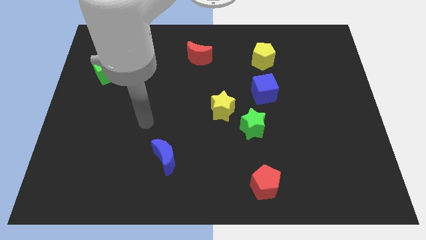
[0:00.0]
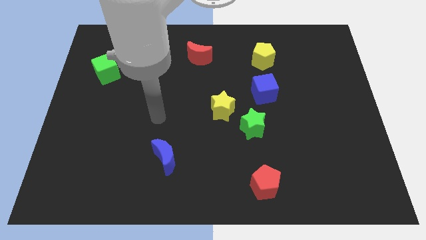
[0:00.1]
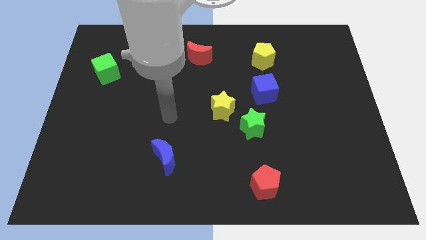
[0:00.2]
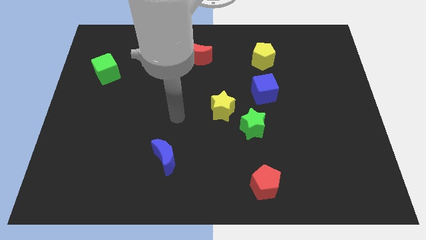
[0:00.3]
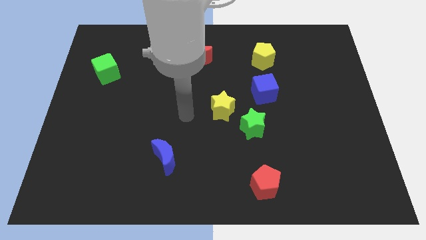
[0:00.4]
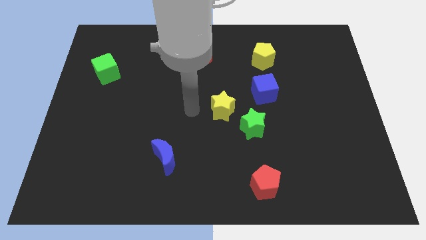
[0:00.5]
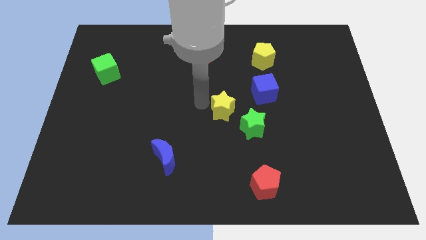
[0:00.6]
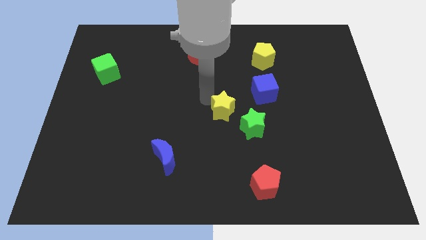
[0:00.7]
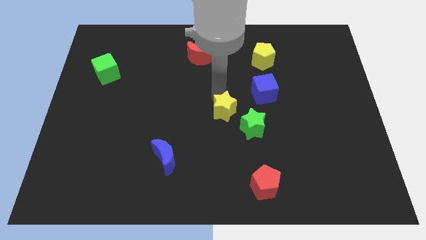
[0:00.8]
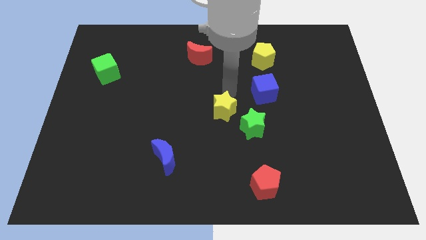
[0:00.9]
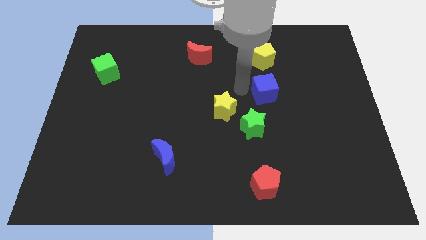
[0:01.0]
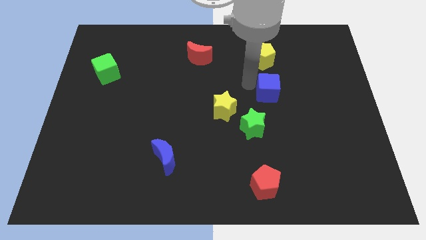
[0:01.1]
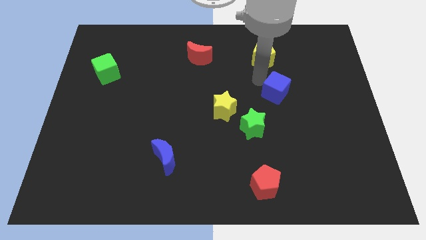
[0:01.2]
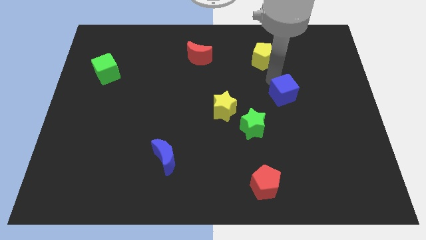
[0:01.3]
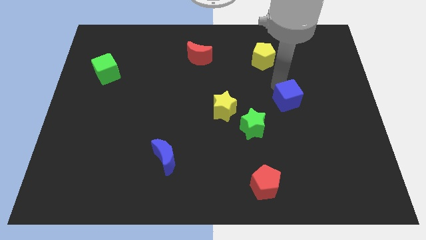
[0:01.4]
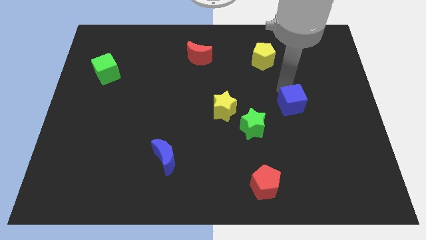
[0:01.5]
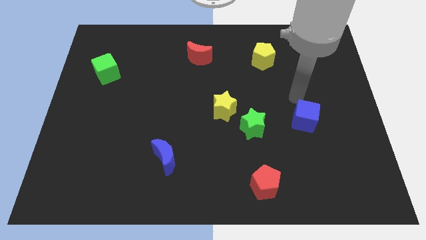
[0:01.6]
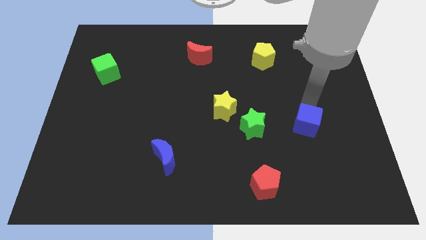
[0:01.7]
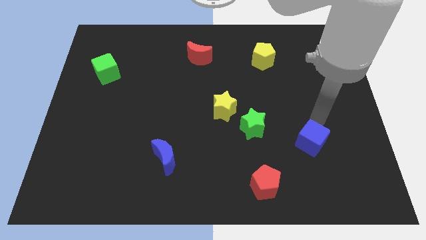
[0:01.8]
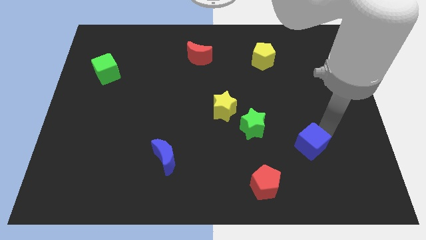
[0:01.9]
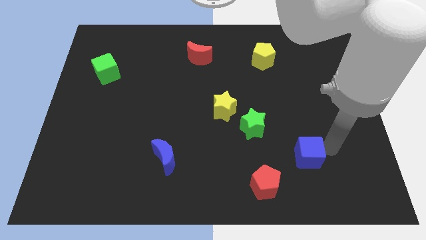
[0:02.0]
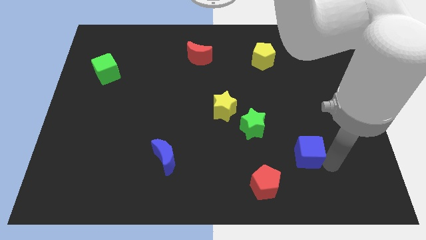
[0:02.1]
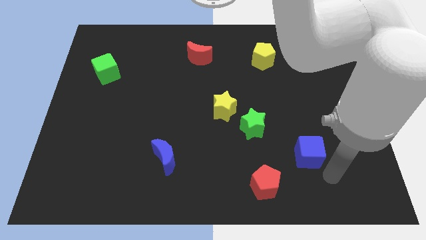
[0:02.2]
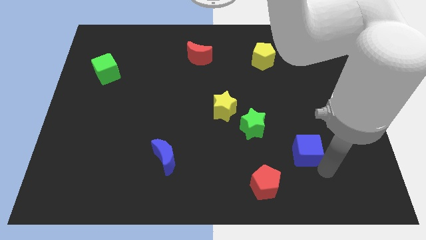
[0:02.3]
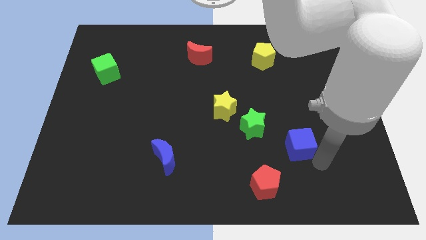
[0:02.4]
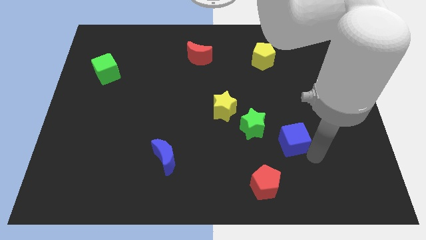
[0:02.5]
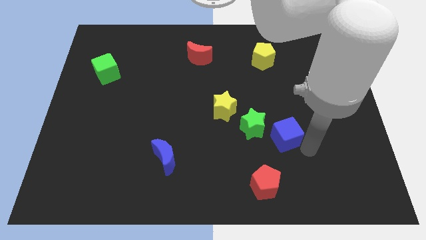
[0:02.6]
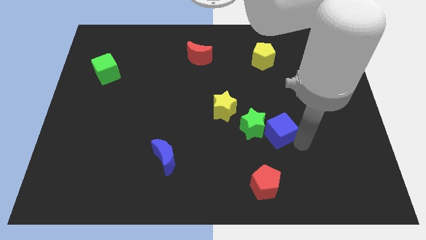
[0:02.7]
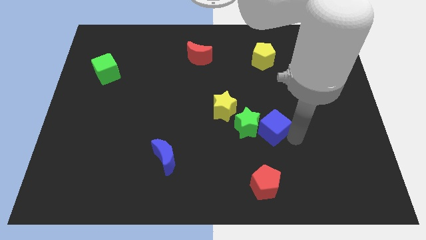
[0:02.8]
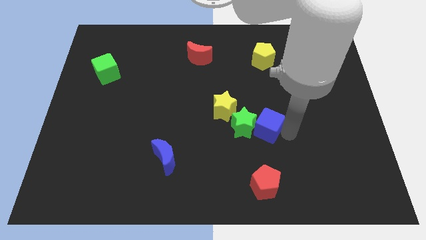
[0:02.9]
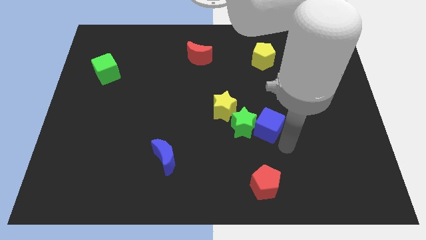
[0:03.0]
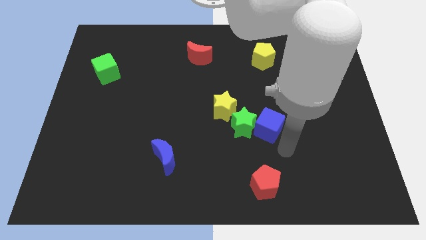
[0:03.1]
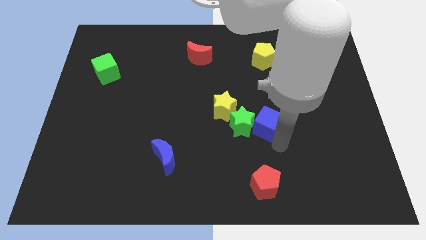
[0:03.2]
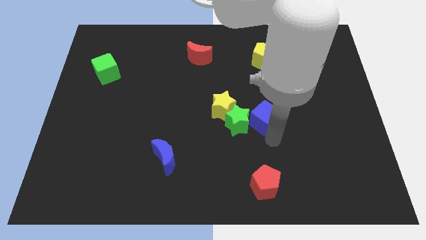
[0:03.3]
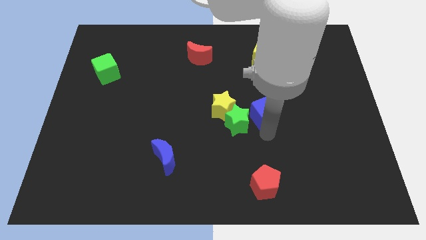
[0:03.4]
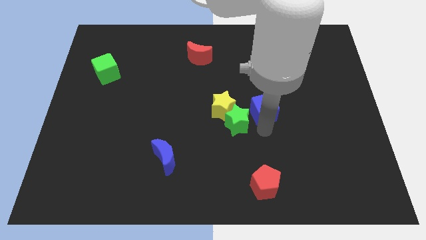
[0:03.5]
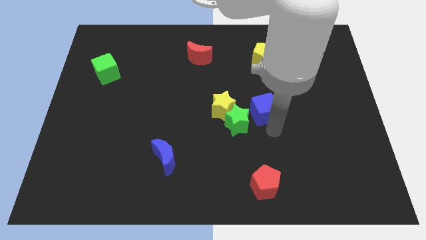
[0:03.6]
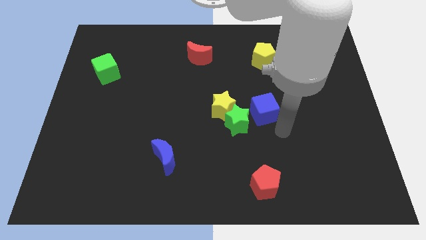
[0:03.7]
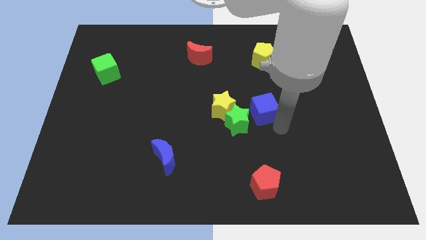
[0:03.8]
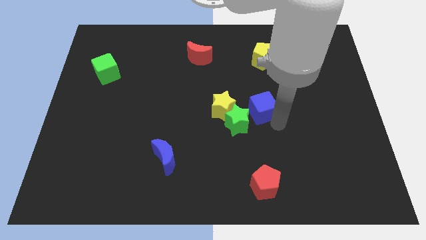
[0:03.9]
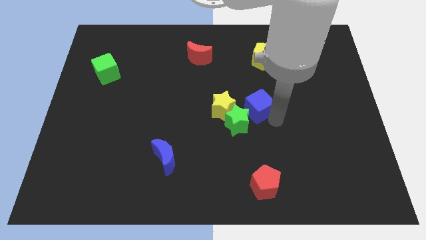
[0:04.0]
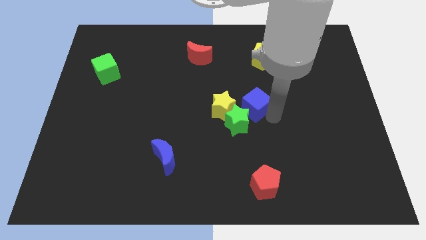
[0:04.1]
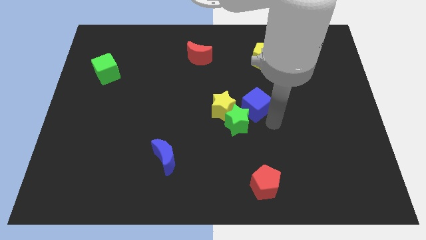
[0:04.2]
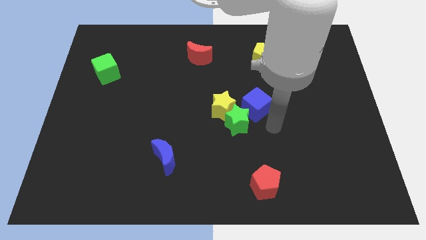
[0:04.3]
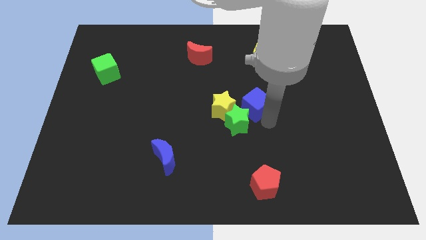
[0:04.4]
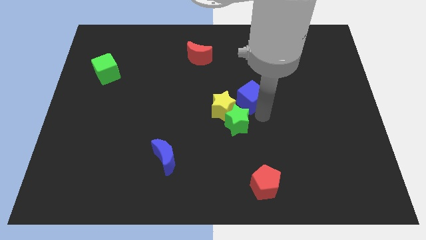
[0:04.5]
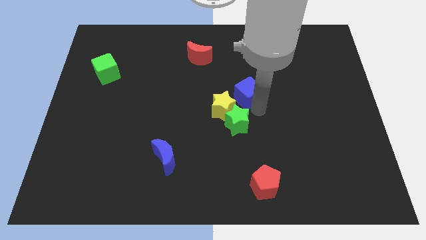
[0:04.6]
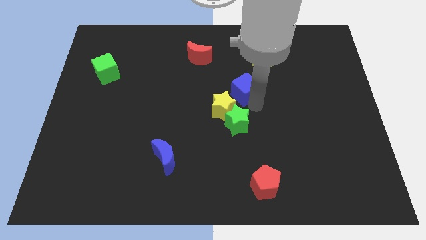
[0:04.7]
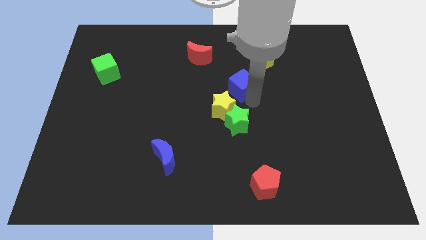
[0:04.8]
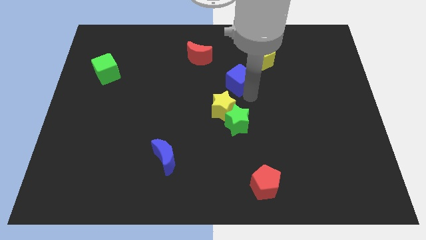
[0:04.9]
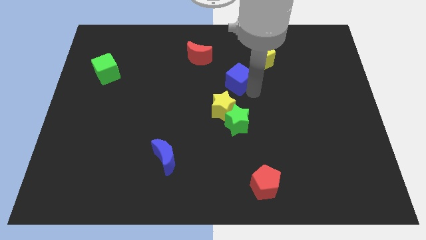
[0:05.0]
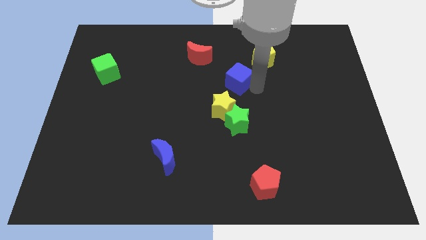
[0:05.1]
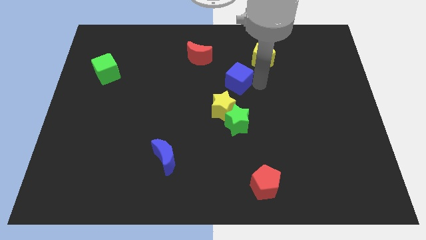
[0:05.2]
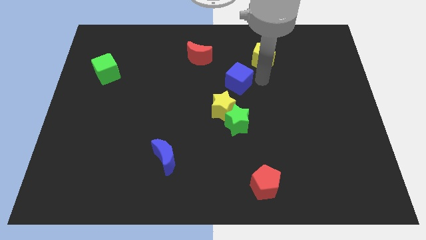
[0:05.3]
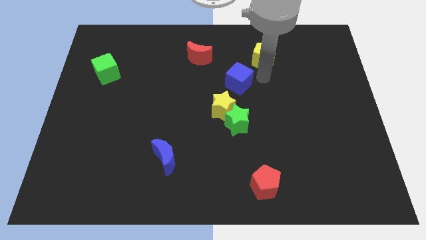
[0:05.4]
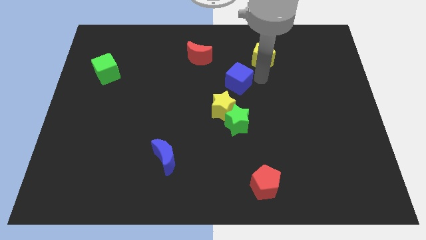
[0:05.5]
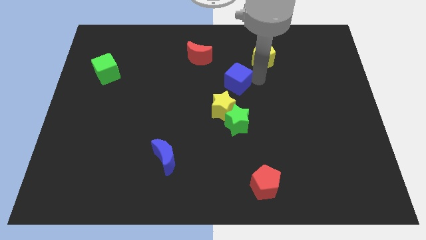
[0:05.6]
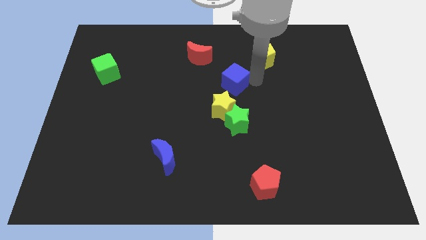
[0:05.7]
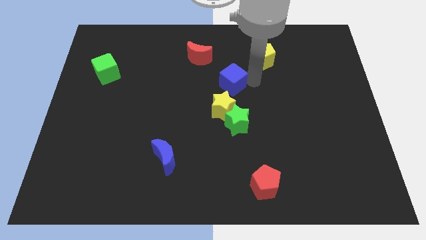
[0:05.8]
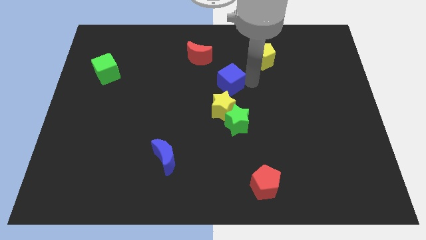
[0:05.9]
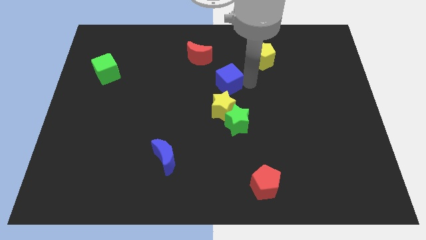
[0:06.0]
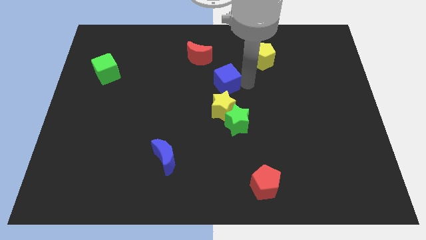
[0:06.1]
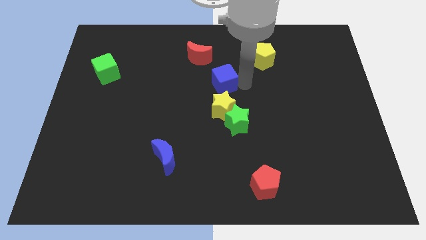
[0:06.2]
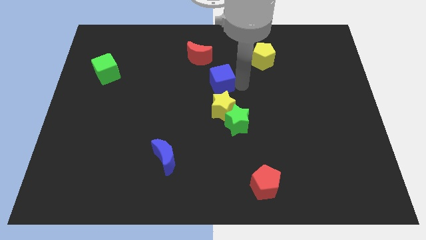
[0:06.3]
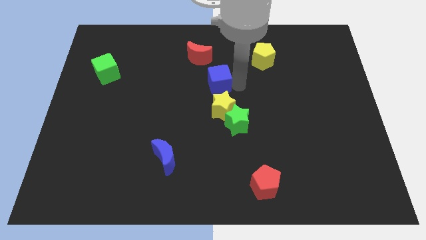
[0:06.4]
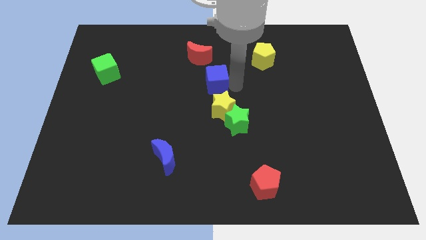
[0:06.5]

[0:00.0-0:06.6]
move the blue cube to the bottom side of the red moon
